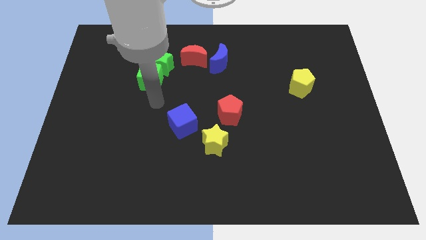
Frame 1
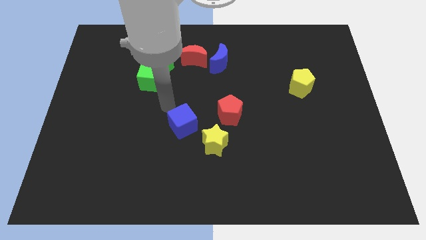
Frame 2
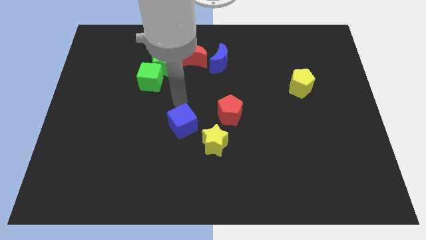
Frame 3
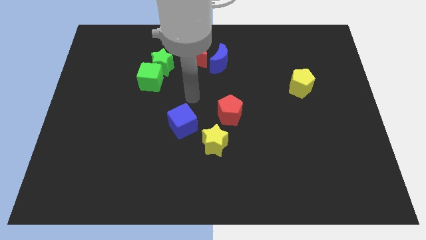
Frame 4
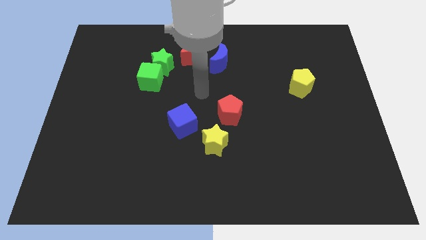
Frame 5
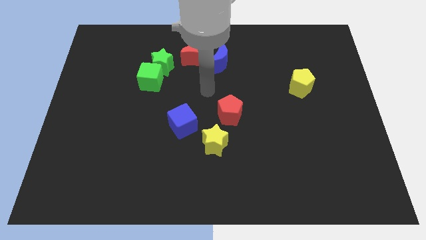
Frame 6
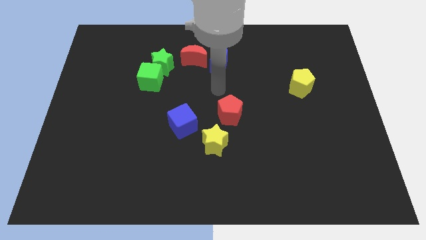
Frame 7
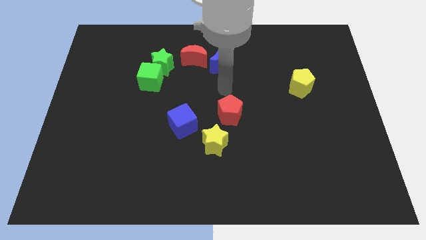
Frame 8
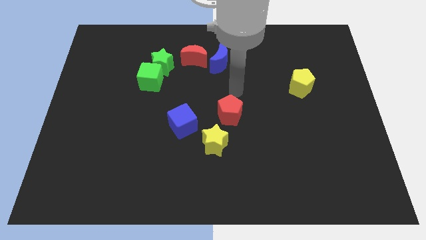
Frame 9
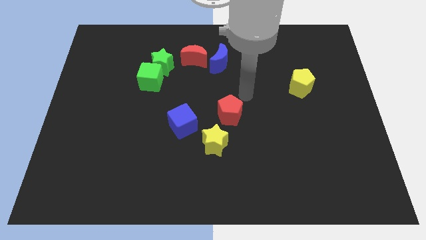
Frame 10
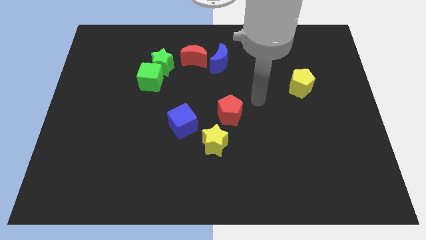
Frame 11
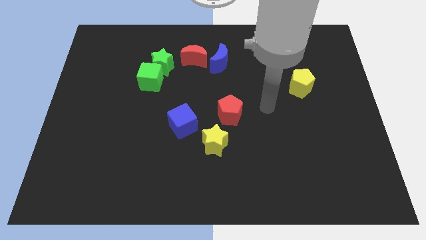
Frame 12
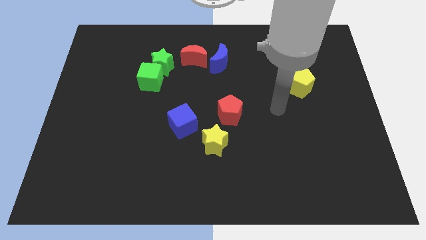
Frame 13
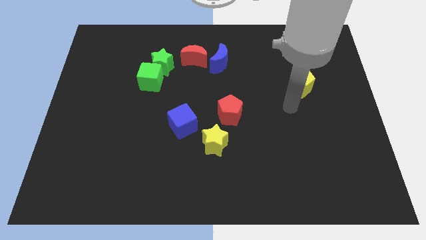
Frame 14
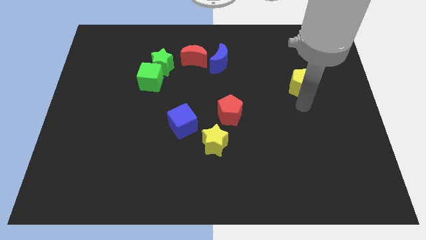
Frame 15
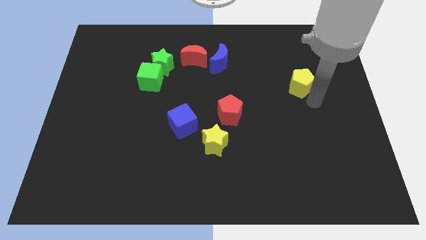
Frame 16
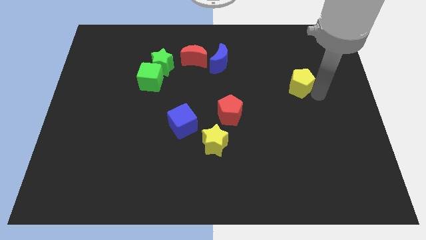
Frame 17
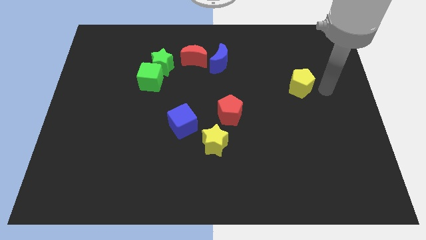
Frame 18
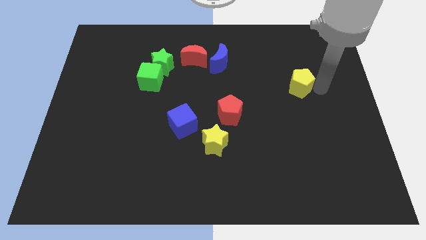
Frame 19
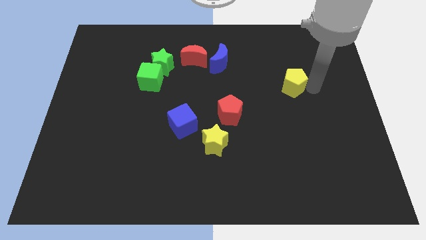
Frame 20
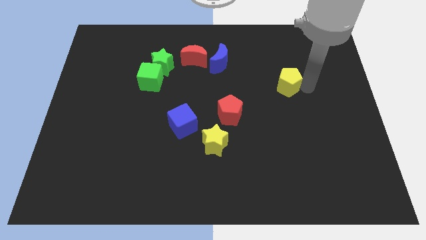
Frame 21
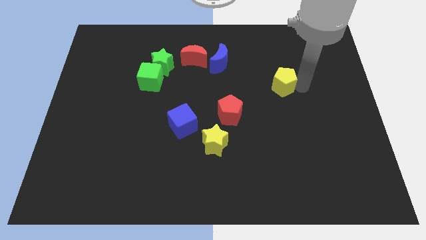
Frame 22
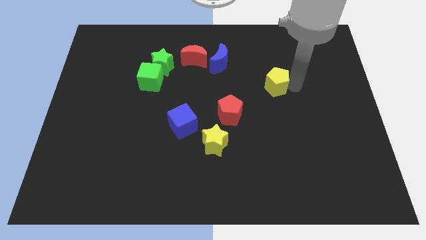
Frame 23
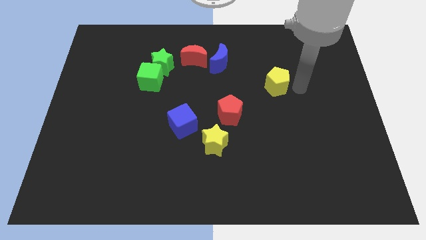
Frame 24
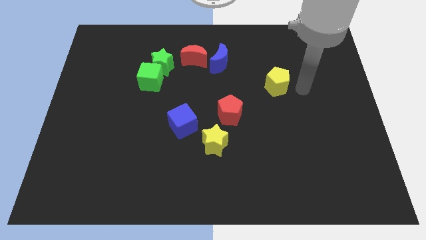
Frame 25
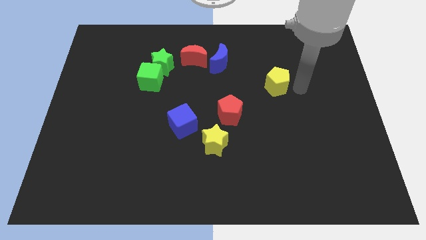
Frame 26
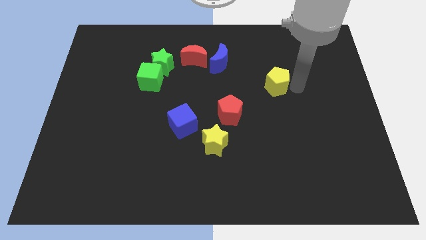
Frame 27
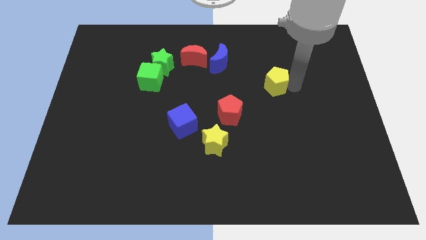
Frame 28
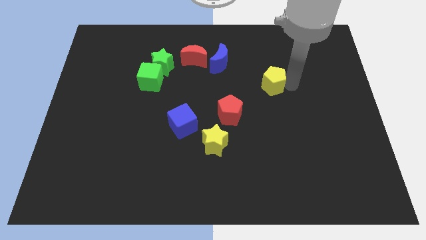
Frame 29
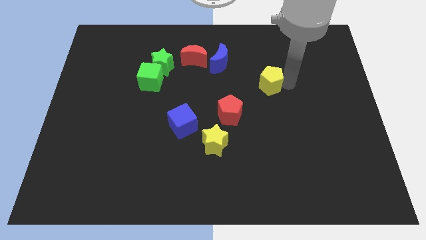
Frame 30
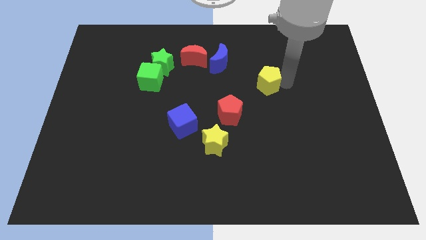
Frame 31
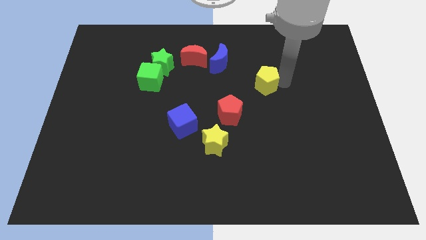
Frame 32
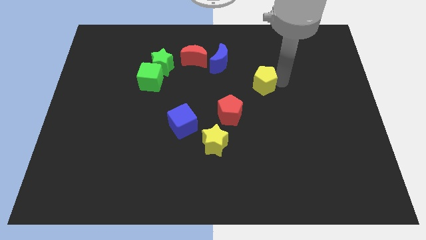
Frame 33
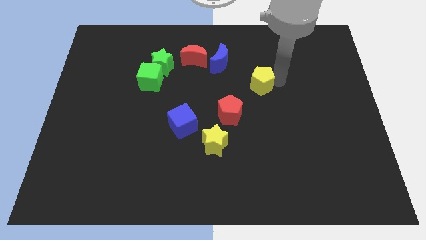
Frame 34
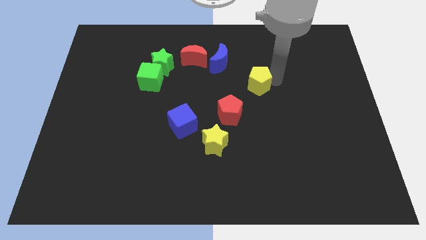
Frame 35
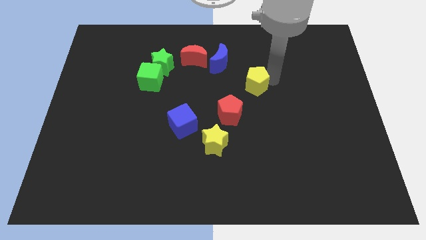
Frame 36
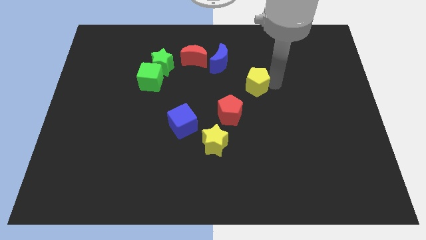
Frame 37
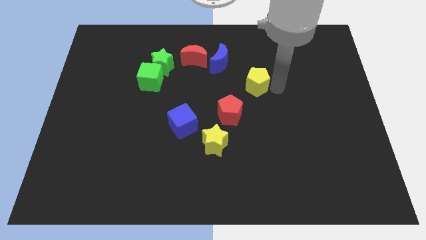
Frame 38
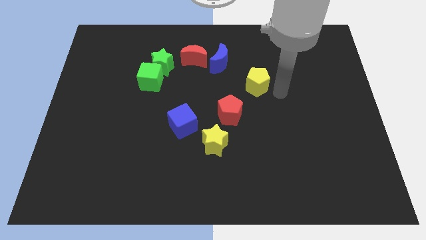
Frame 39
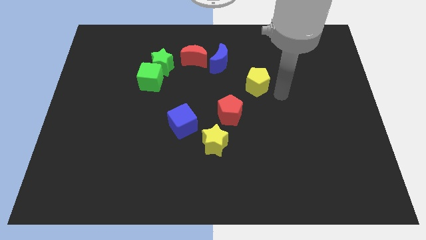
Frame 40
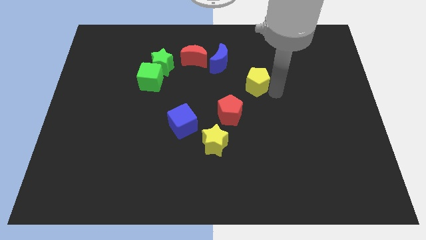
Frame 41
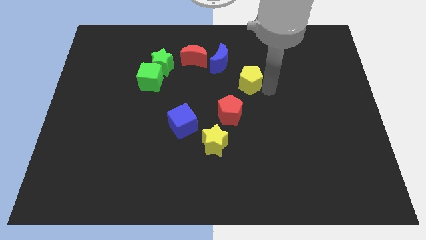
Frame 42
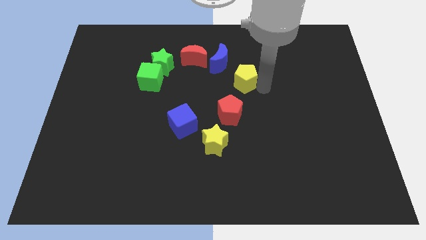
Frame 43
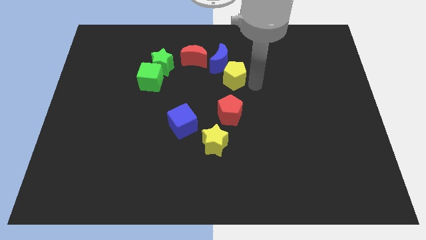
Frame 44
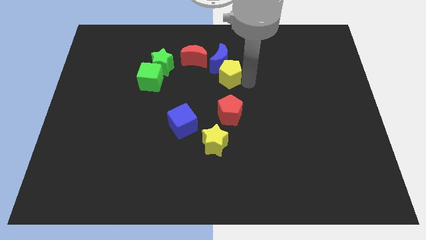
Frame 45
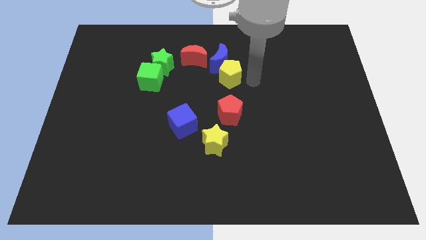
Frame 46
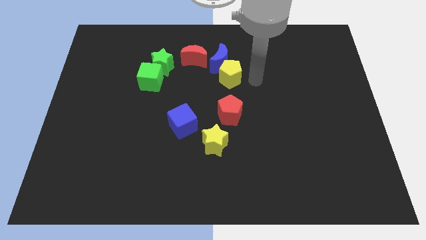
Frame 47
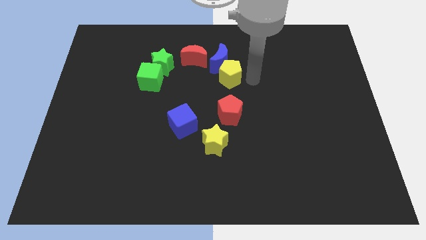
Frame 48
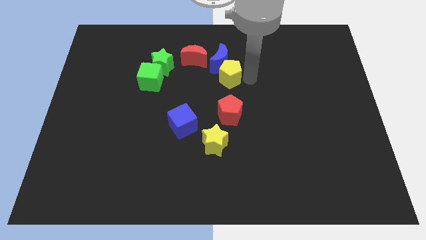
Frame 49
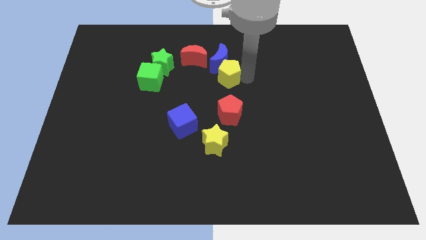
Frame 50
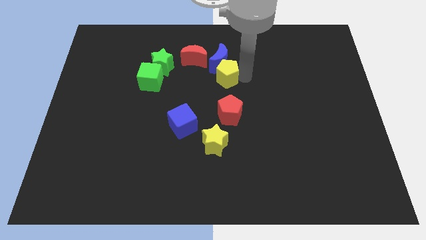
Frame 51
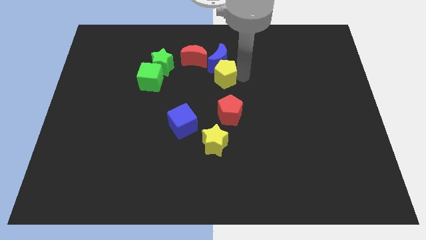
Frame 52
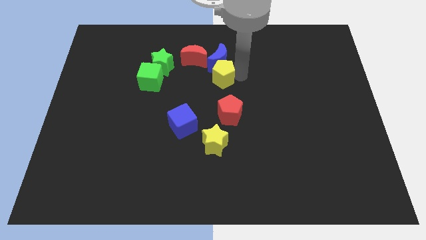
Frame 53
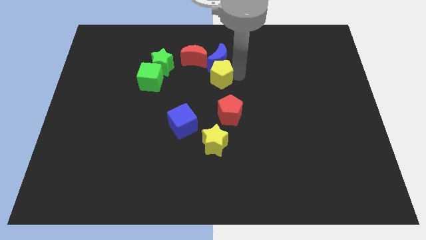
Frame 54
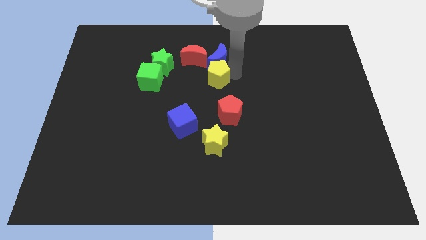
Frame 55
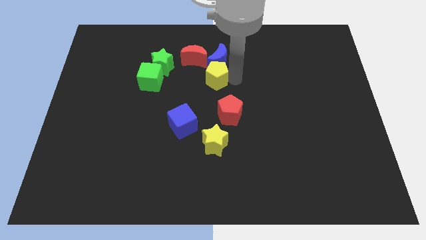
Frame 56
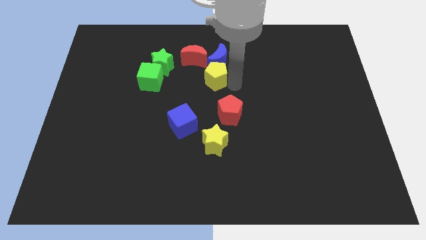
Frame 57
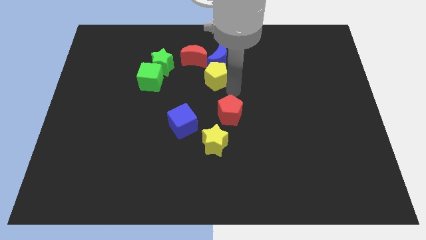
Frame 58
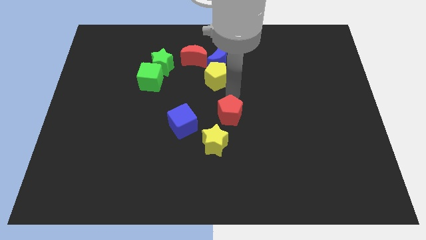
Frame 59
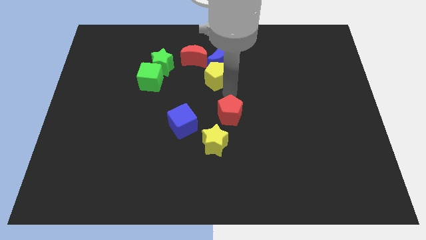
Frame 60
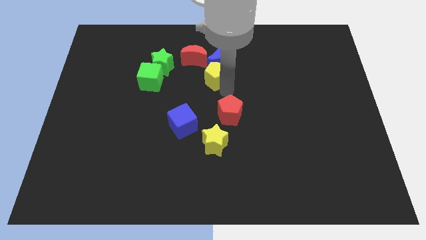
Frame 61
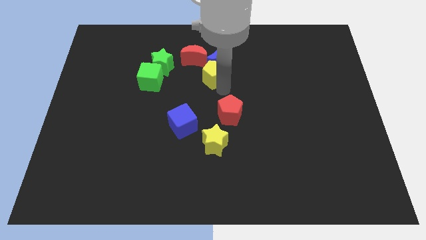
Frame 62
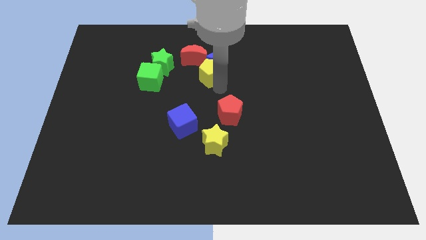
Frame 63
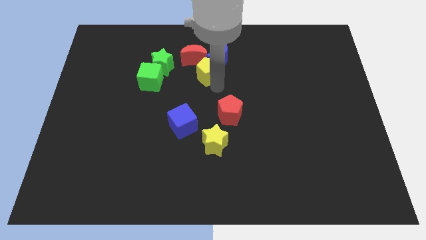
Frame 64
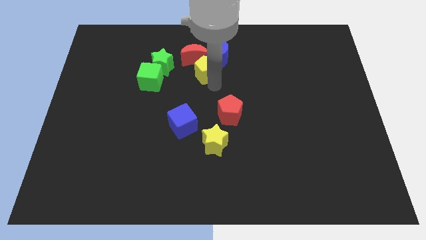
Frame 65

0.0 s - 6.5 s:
put the yellow pentagon next to the red moon

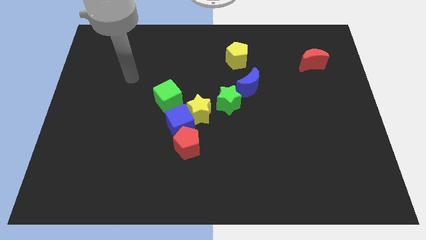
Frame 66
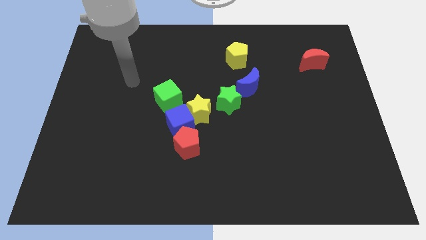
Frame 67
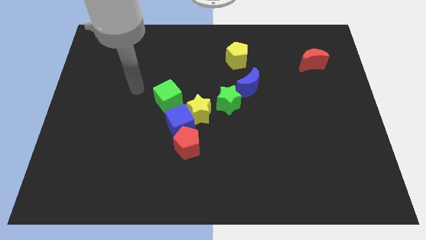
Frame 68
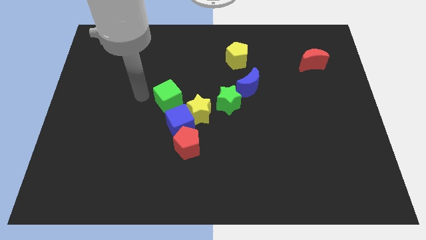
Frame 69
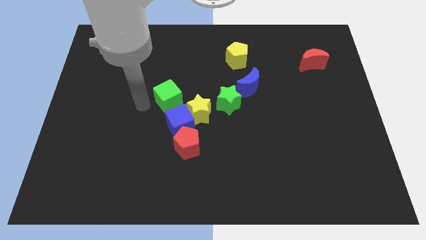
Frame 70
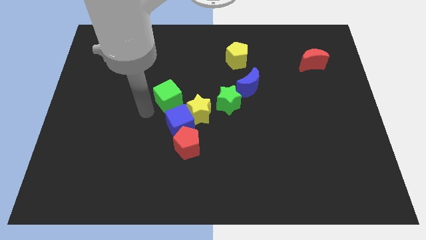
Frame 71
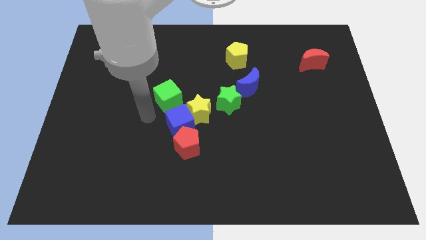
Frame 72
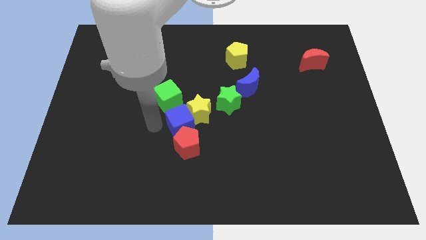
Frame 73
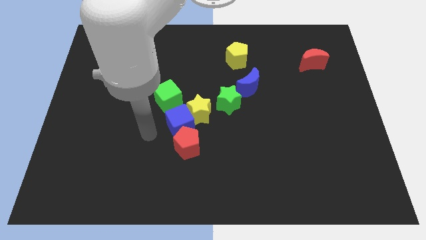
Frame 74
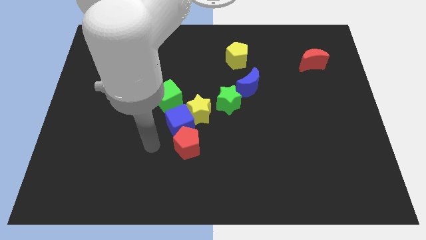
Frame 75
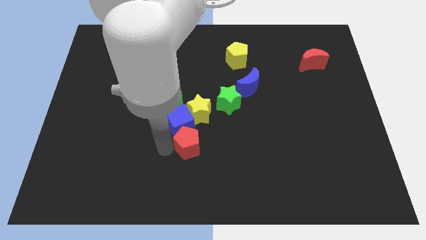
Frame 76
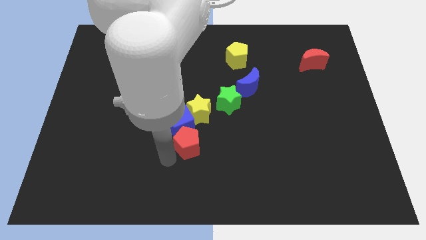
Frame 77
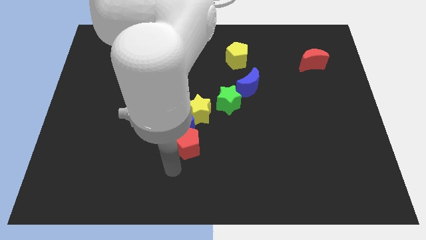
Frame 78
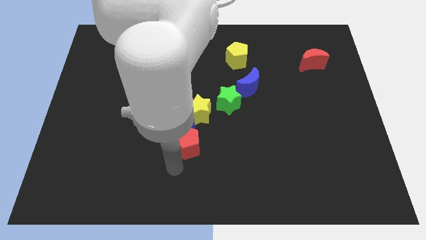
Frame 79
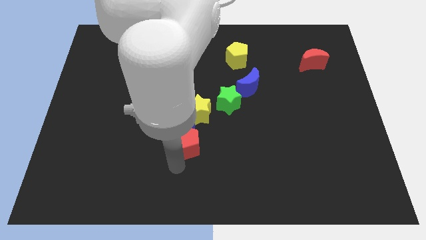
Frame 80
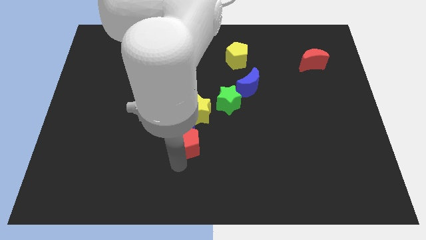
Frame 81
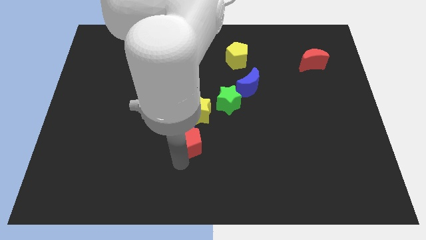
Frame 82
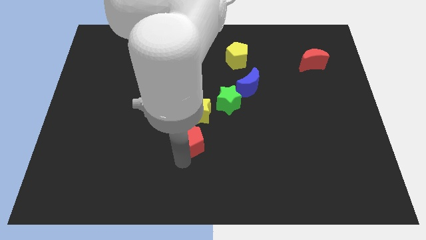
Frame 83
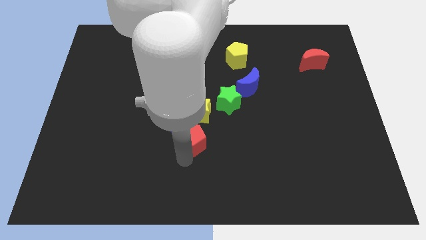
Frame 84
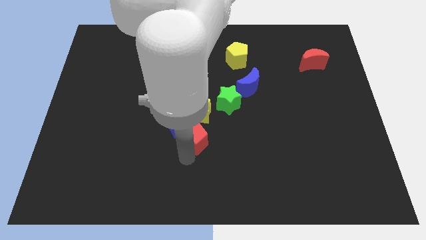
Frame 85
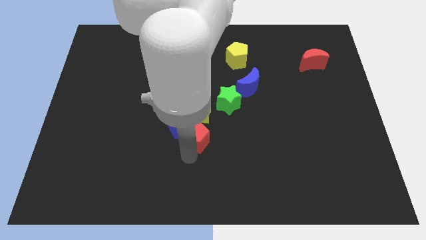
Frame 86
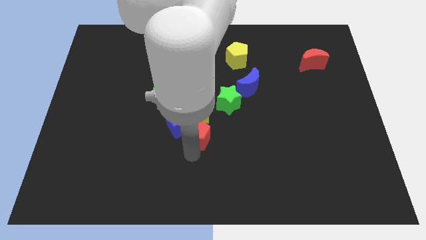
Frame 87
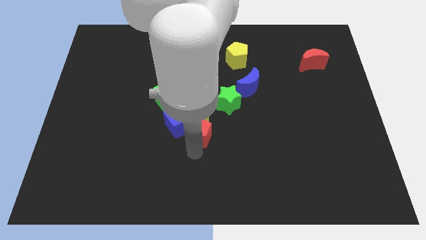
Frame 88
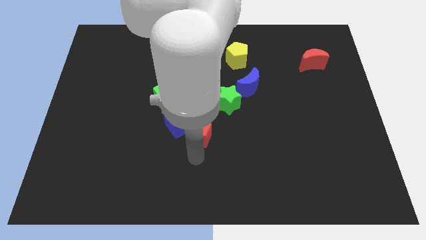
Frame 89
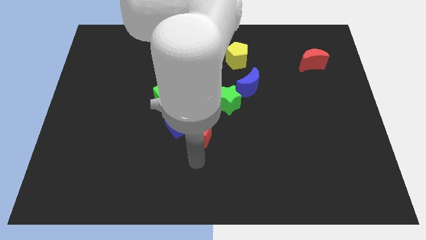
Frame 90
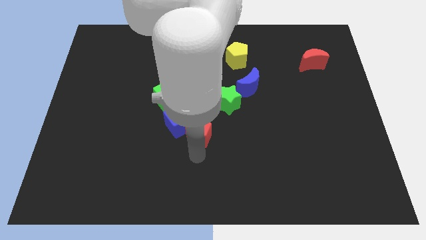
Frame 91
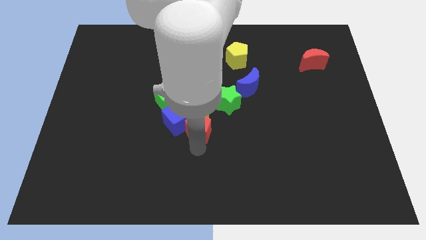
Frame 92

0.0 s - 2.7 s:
move the red pentagon next to the yellow star
